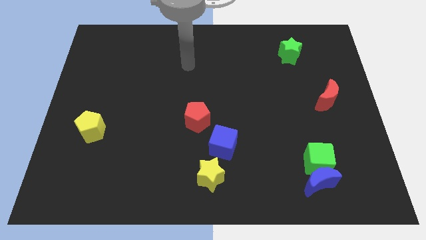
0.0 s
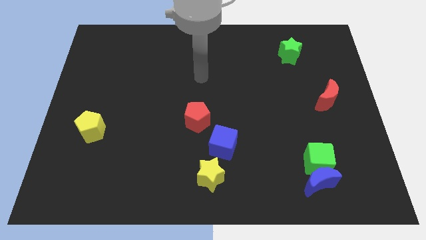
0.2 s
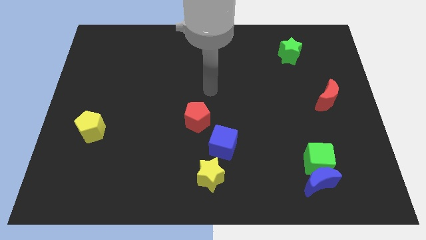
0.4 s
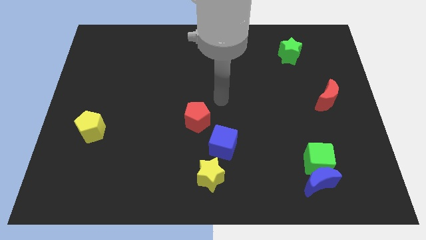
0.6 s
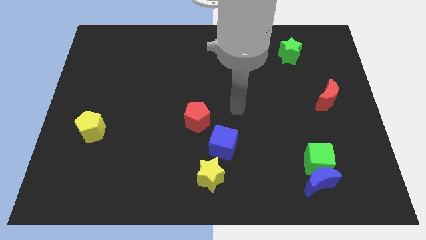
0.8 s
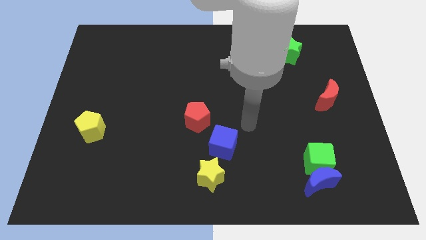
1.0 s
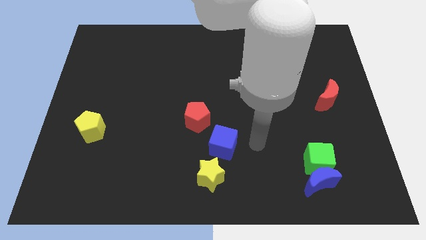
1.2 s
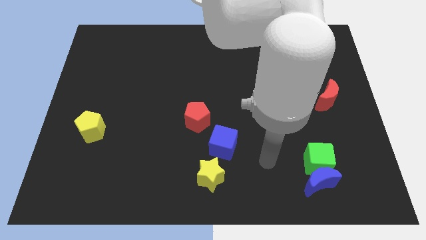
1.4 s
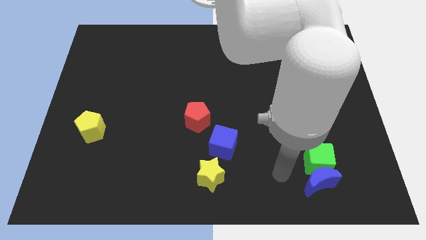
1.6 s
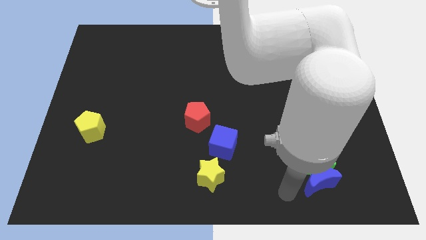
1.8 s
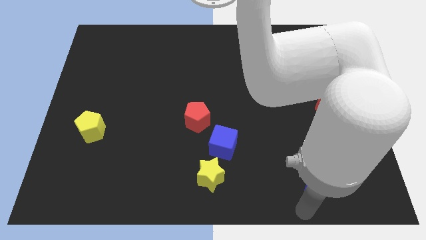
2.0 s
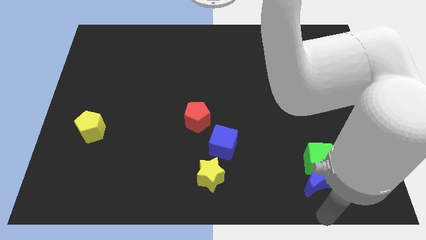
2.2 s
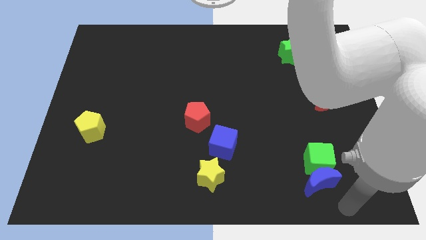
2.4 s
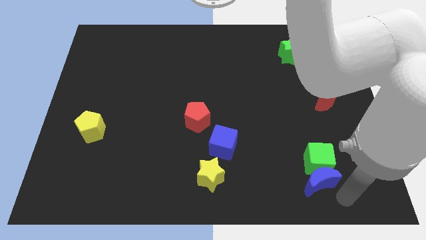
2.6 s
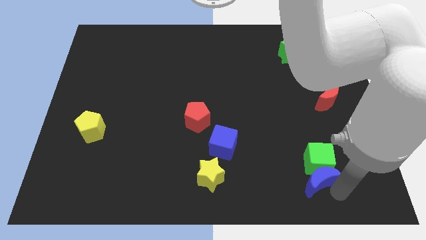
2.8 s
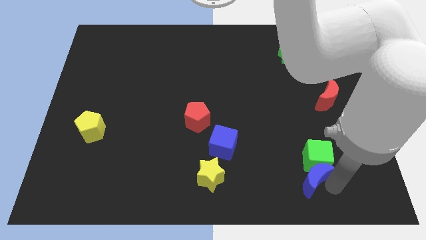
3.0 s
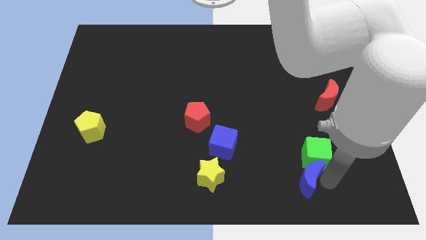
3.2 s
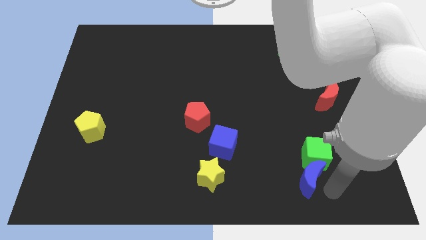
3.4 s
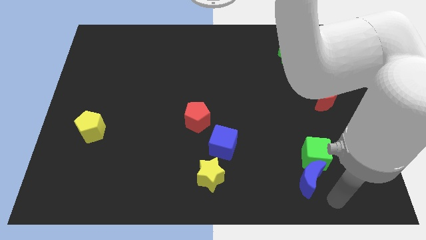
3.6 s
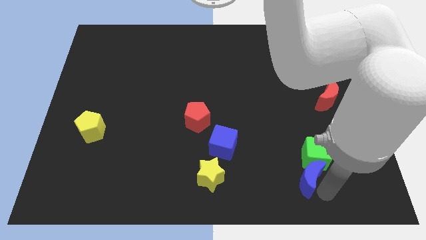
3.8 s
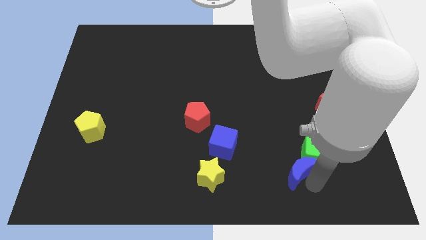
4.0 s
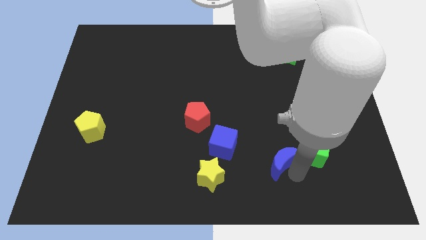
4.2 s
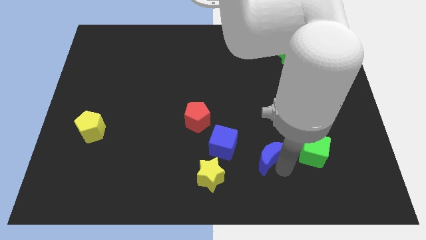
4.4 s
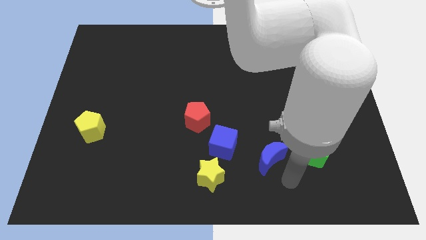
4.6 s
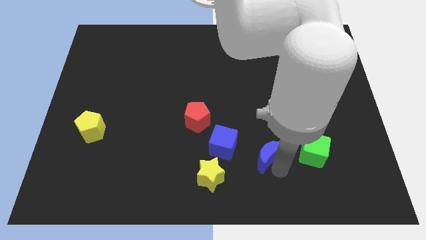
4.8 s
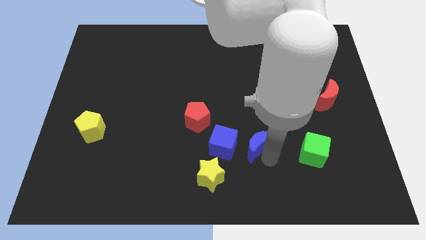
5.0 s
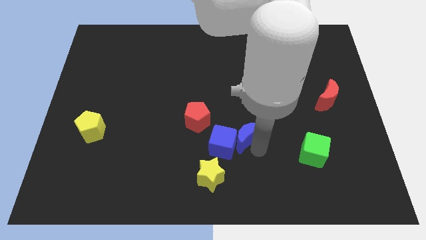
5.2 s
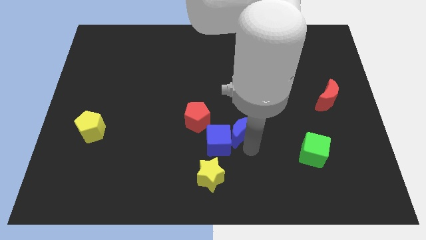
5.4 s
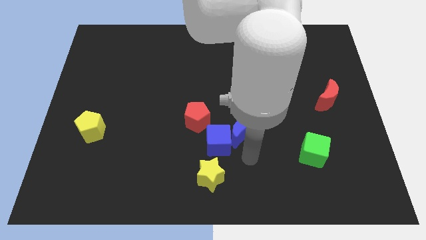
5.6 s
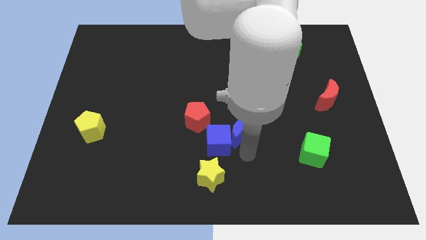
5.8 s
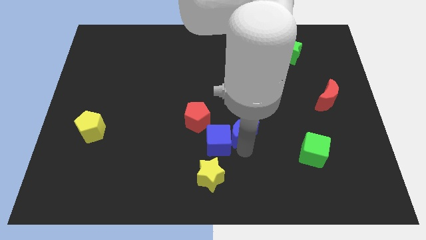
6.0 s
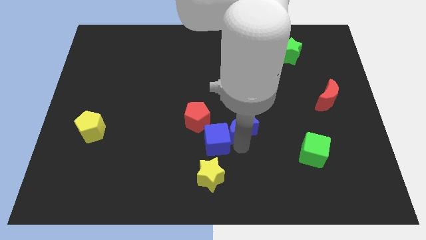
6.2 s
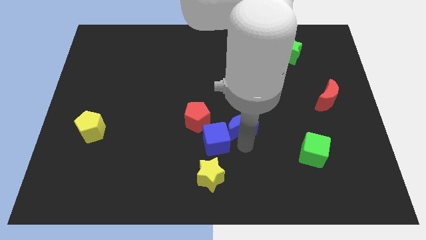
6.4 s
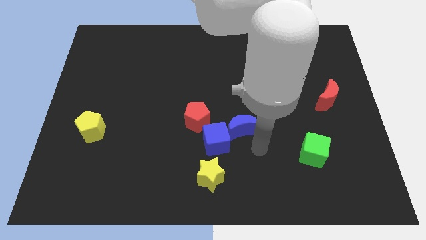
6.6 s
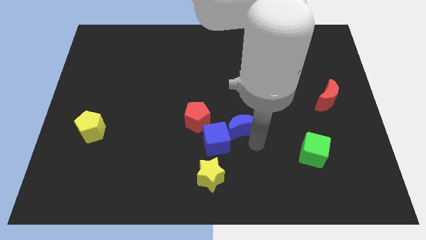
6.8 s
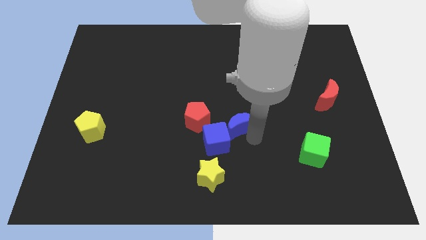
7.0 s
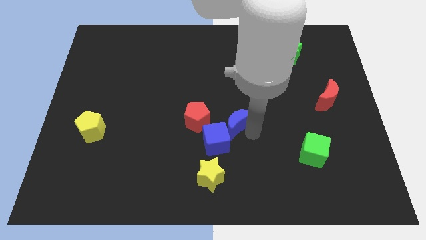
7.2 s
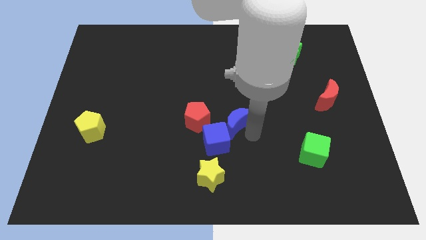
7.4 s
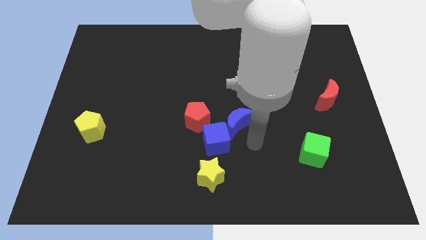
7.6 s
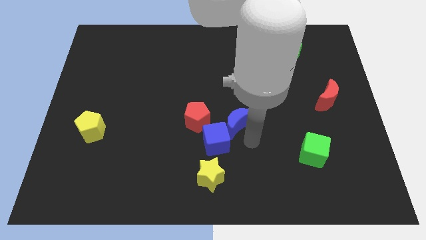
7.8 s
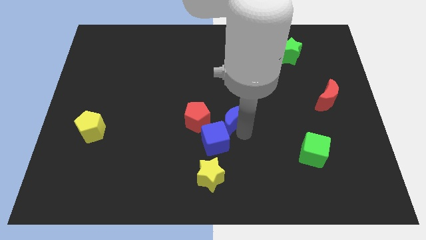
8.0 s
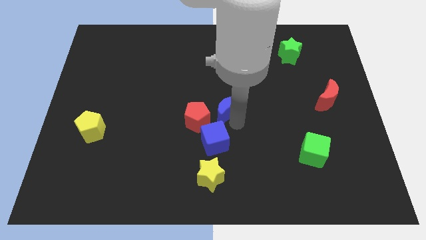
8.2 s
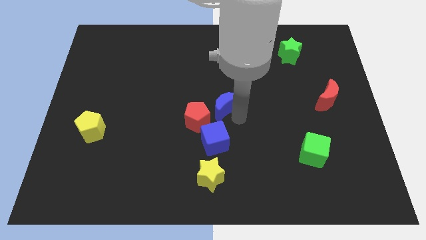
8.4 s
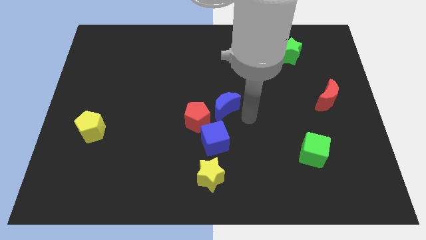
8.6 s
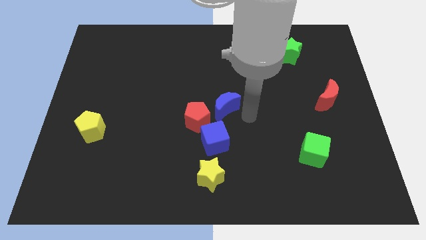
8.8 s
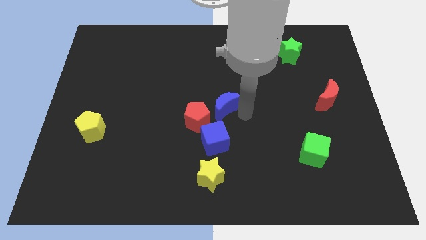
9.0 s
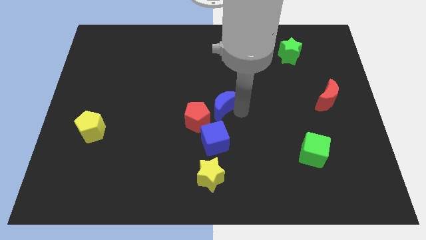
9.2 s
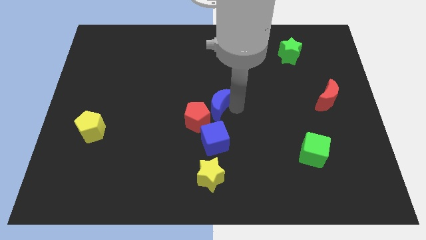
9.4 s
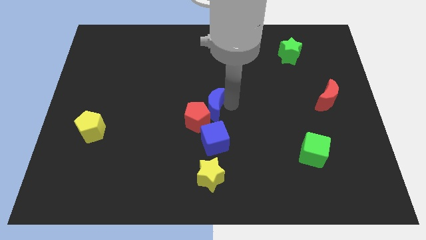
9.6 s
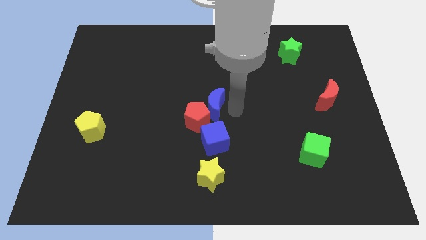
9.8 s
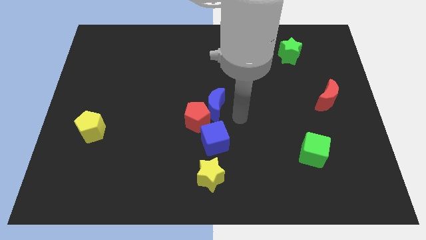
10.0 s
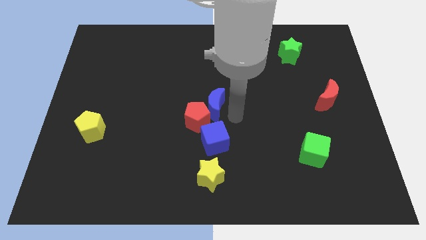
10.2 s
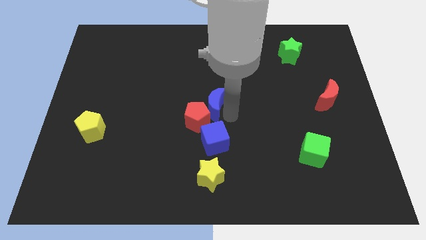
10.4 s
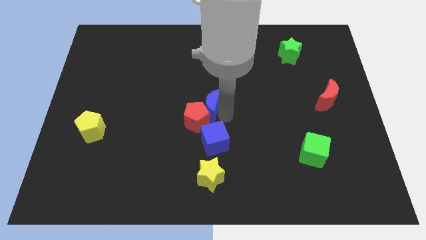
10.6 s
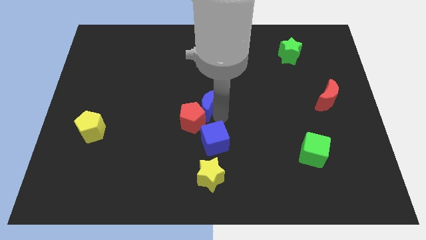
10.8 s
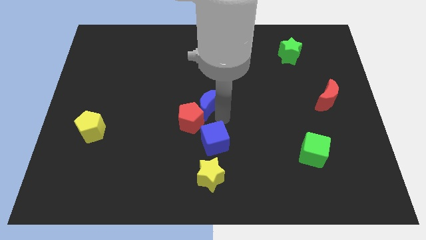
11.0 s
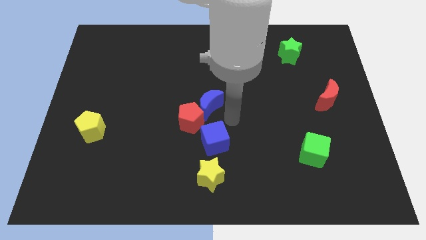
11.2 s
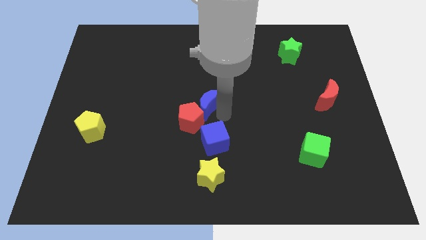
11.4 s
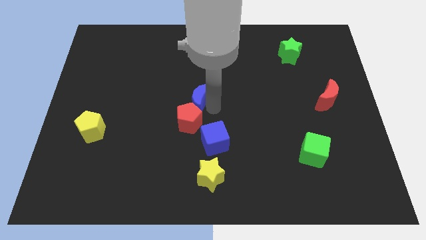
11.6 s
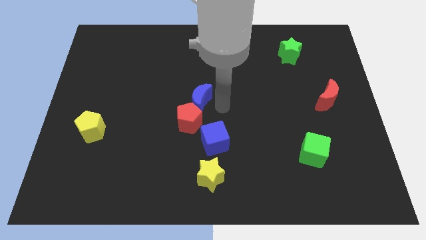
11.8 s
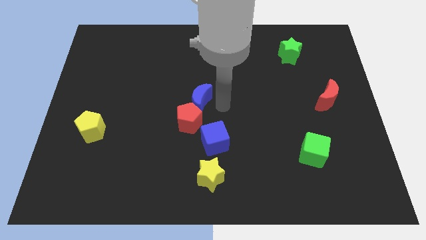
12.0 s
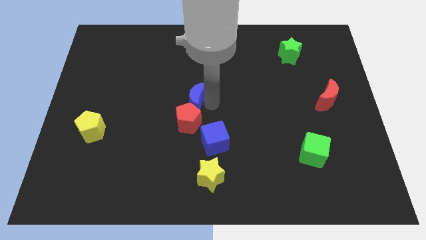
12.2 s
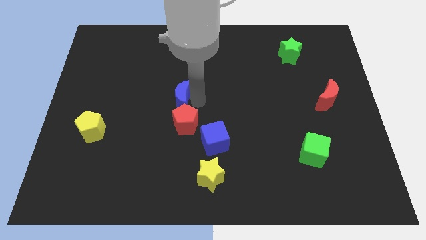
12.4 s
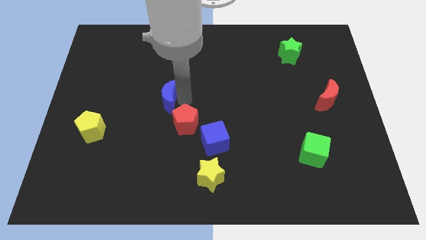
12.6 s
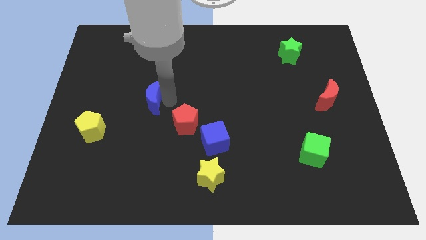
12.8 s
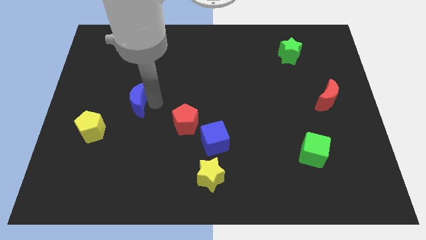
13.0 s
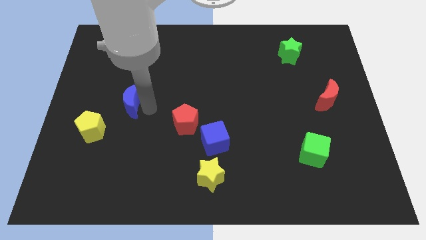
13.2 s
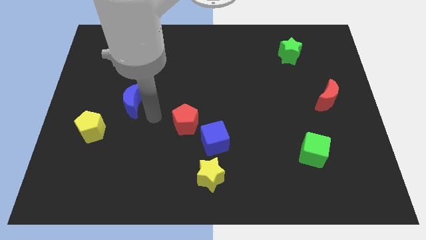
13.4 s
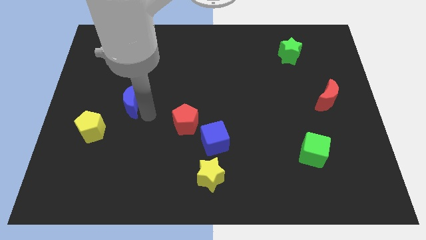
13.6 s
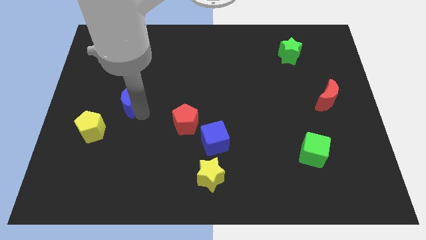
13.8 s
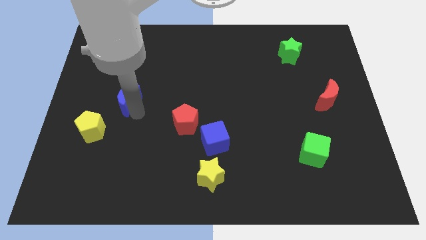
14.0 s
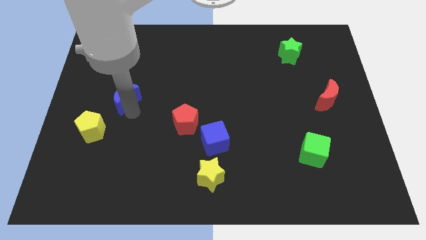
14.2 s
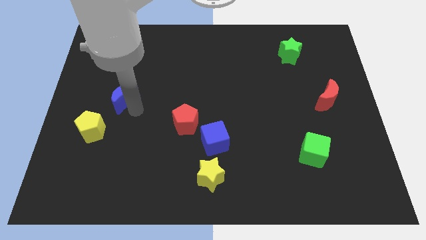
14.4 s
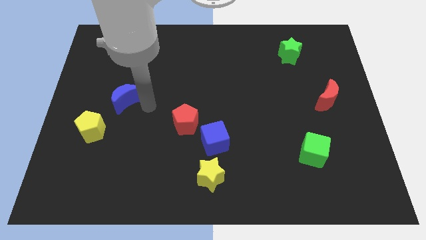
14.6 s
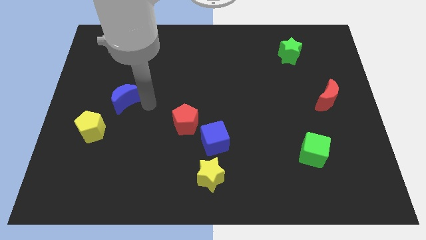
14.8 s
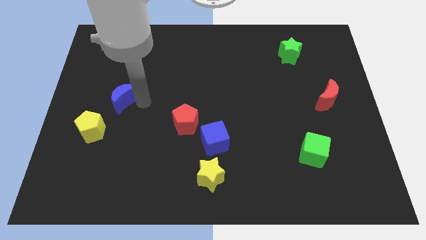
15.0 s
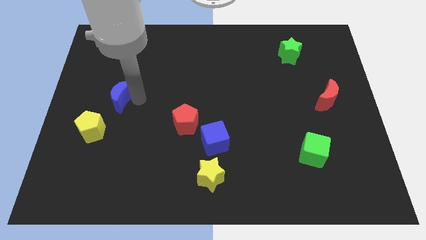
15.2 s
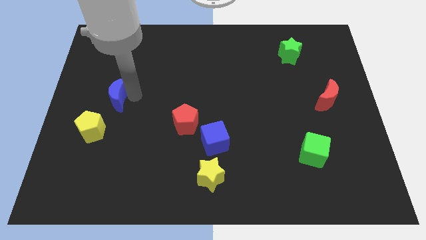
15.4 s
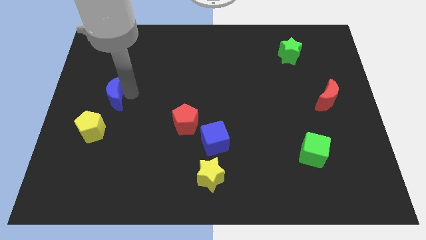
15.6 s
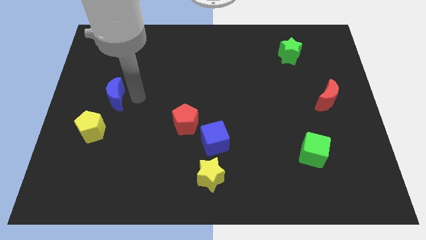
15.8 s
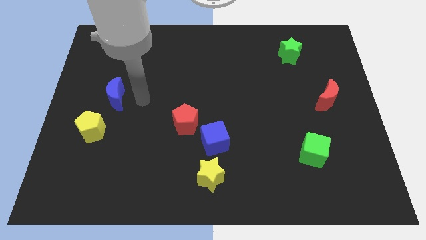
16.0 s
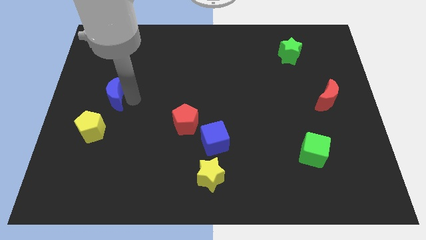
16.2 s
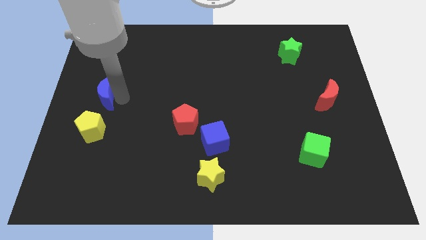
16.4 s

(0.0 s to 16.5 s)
slide the blue moon to the left side of the board
